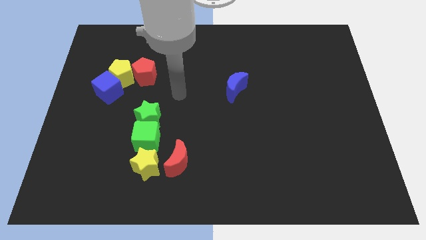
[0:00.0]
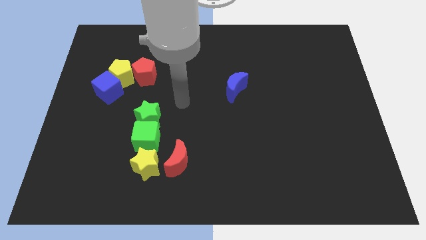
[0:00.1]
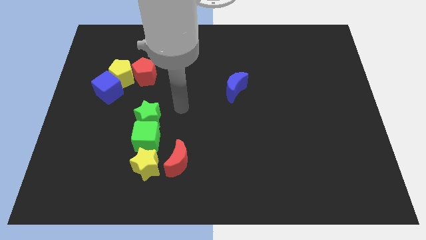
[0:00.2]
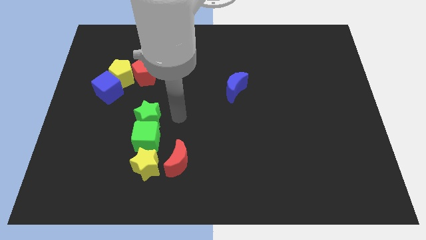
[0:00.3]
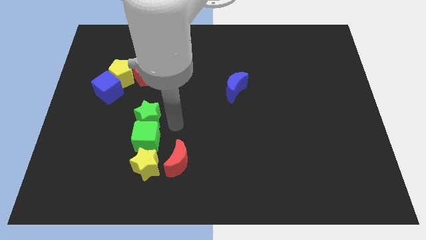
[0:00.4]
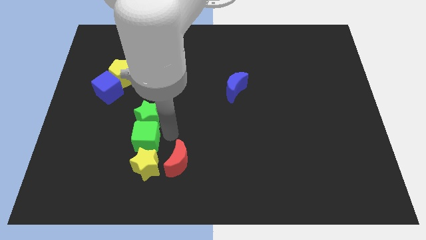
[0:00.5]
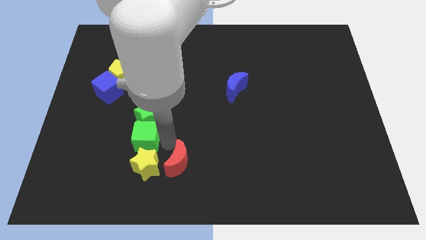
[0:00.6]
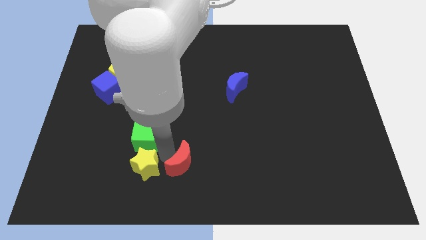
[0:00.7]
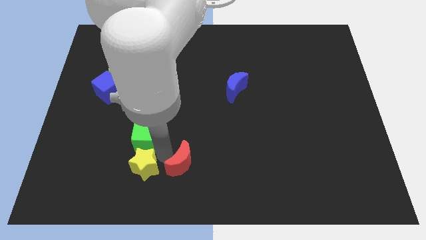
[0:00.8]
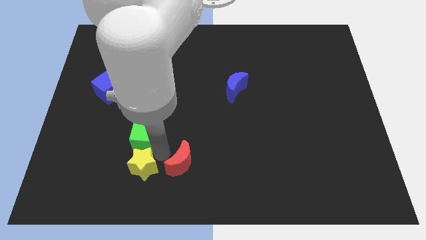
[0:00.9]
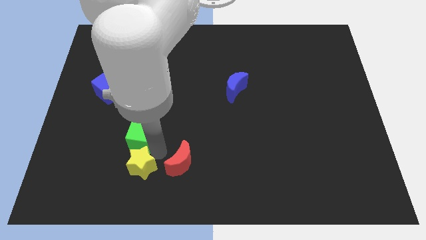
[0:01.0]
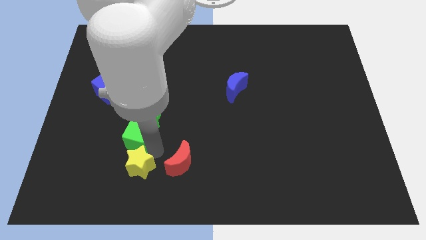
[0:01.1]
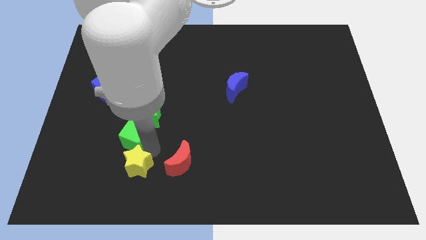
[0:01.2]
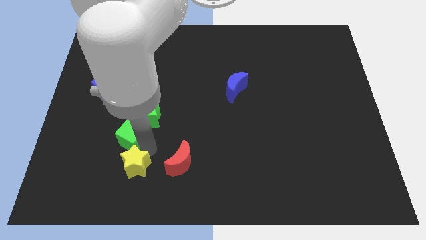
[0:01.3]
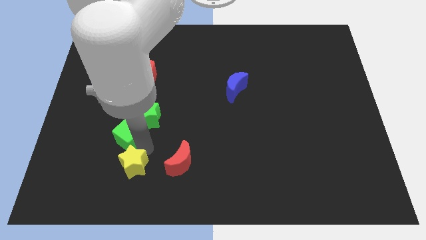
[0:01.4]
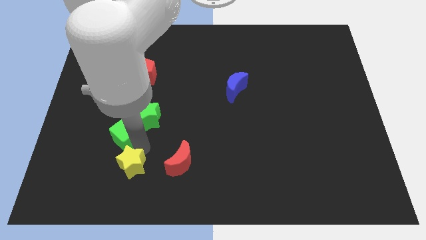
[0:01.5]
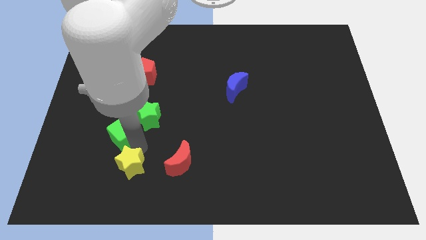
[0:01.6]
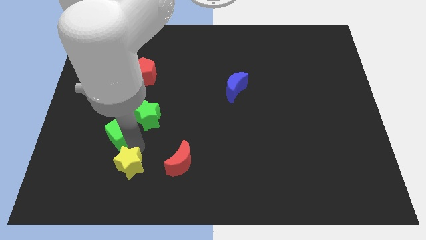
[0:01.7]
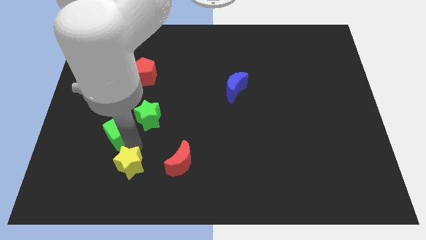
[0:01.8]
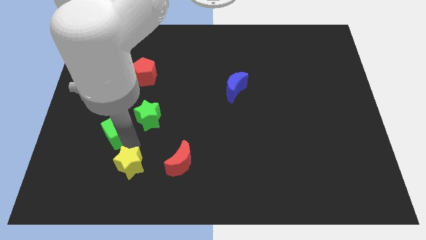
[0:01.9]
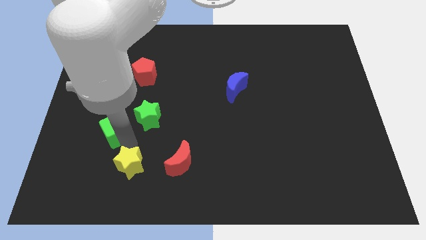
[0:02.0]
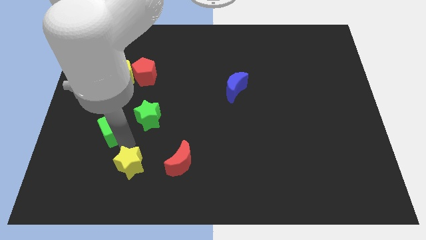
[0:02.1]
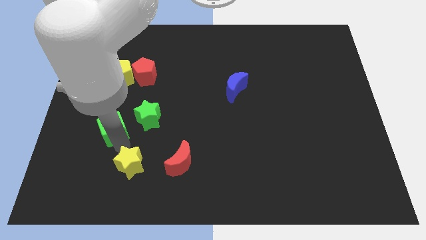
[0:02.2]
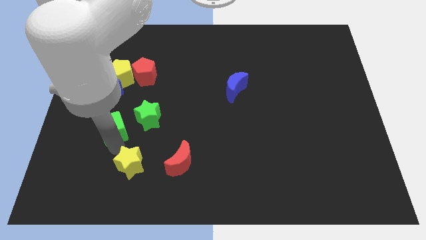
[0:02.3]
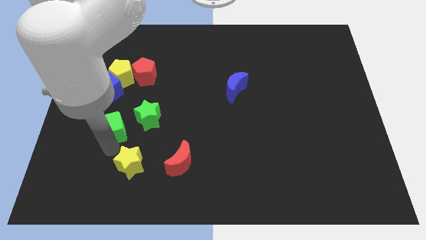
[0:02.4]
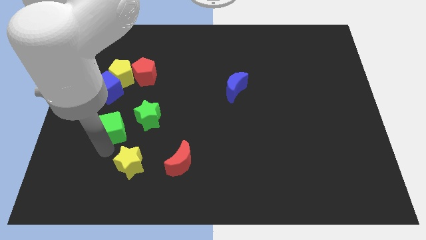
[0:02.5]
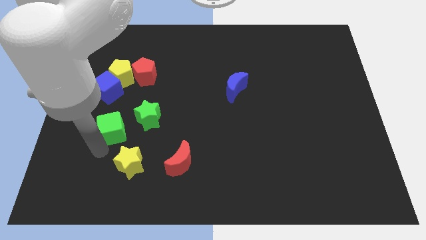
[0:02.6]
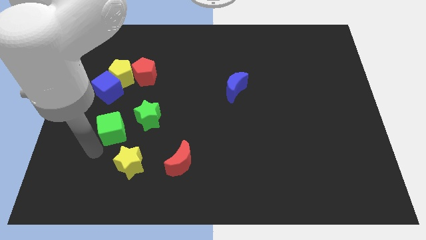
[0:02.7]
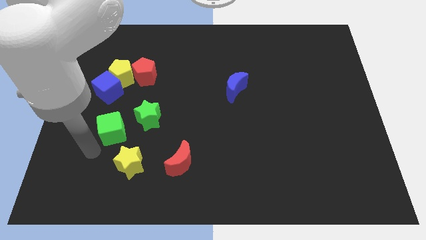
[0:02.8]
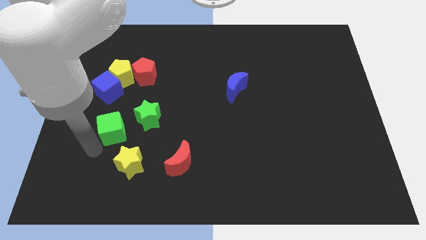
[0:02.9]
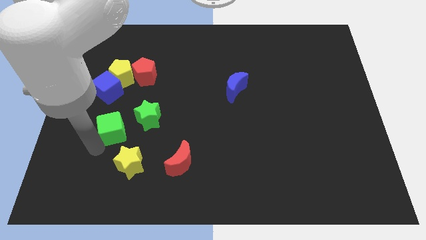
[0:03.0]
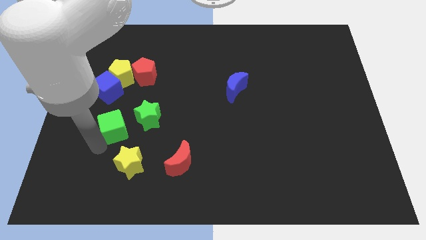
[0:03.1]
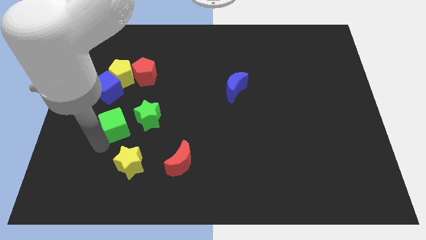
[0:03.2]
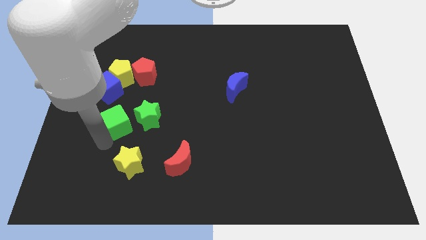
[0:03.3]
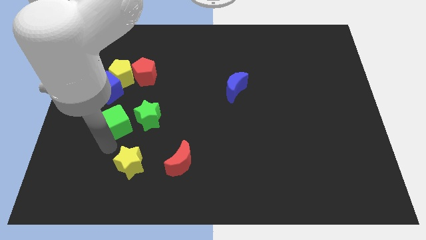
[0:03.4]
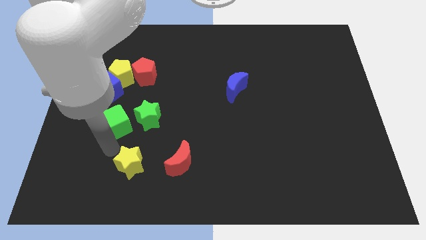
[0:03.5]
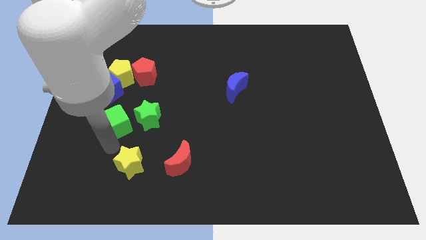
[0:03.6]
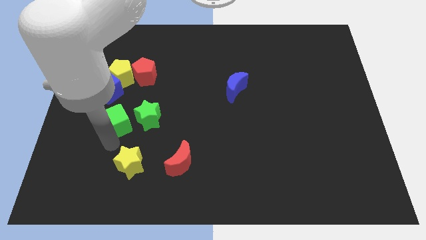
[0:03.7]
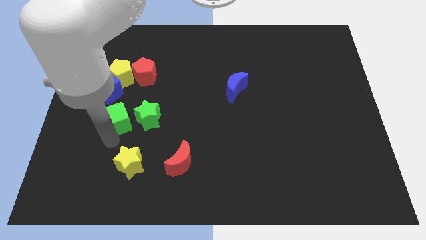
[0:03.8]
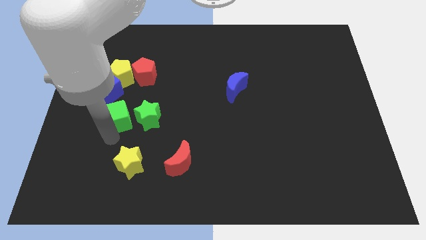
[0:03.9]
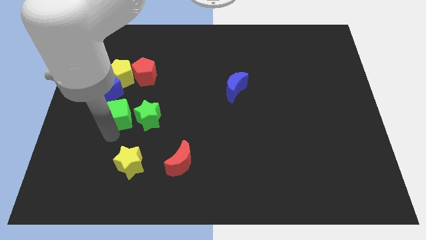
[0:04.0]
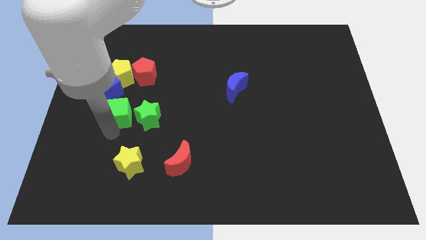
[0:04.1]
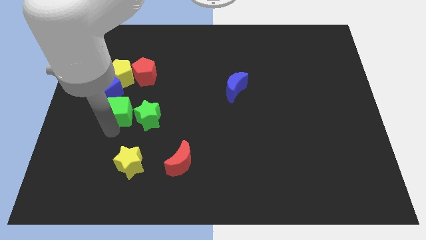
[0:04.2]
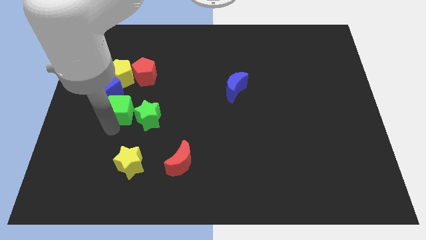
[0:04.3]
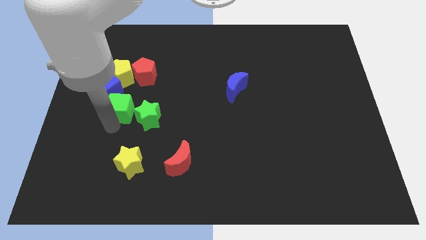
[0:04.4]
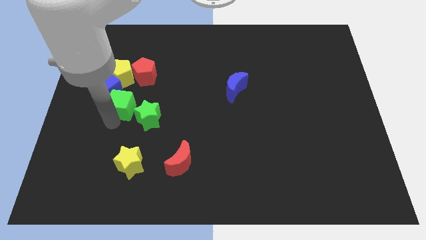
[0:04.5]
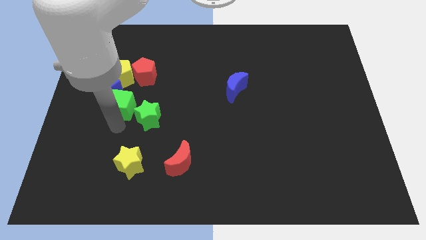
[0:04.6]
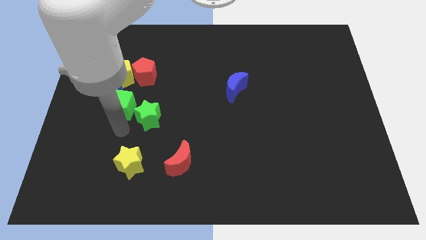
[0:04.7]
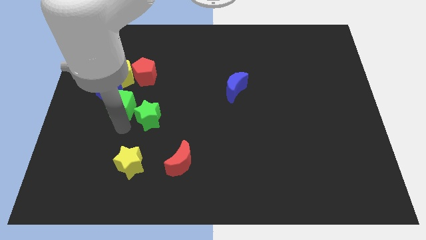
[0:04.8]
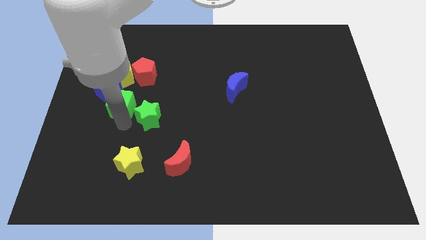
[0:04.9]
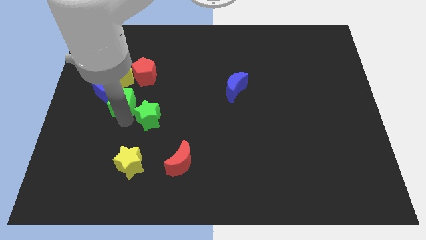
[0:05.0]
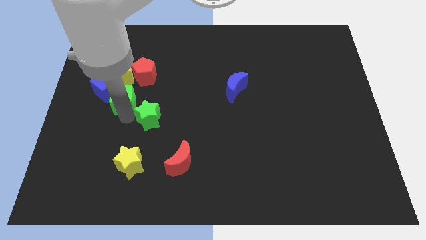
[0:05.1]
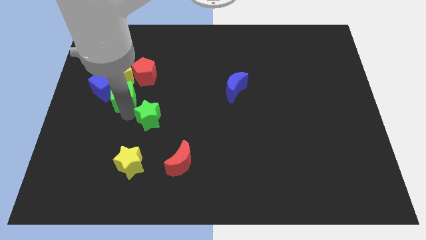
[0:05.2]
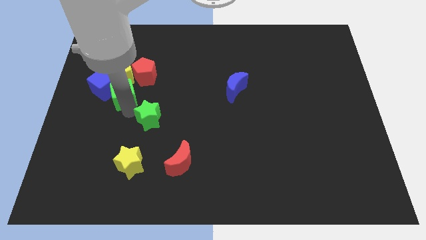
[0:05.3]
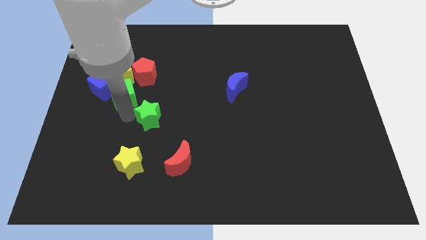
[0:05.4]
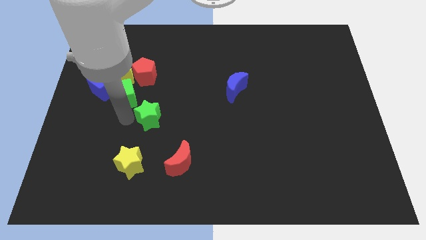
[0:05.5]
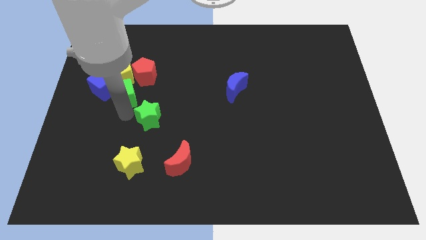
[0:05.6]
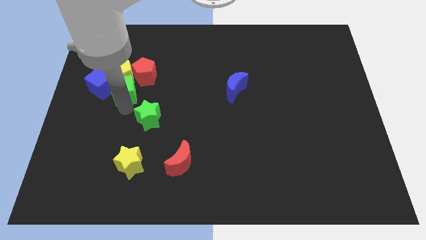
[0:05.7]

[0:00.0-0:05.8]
push the green cube to the yellow pentagon

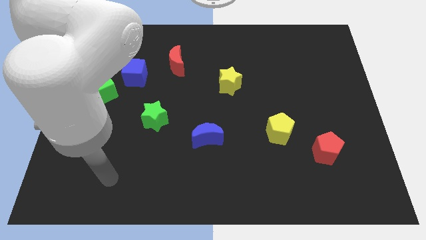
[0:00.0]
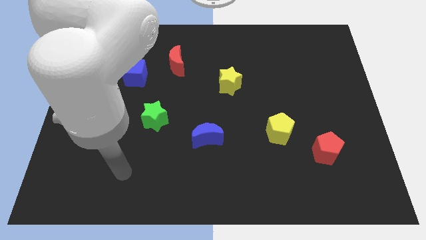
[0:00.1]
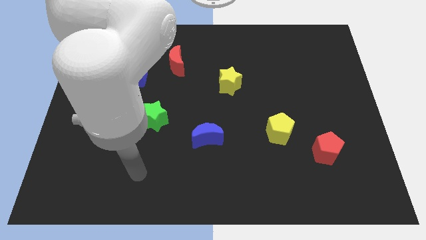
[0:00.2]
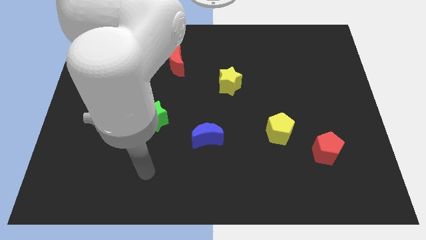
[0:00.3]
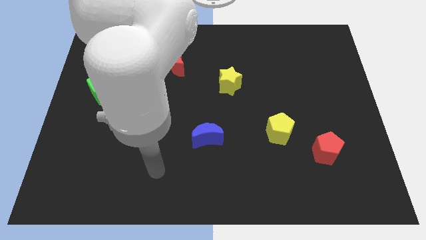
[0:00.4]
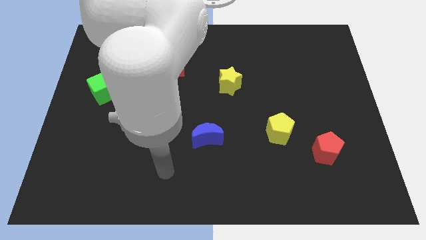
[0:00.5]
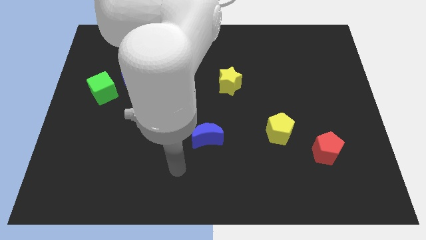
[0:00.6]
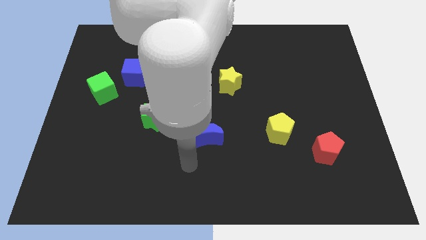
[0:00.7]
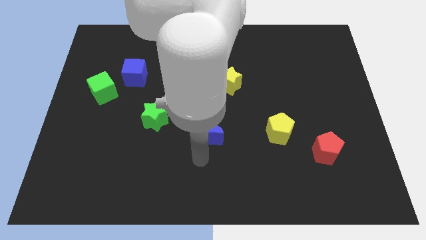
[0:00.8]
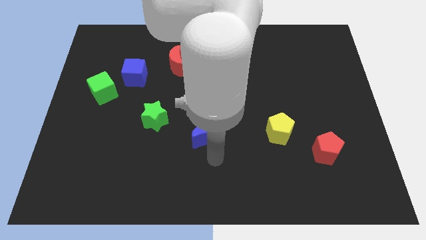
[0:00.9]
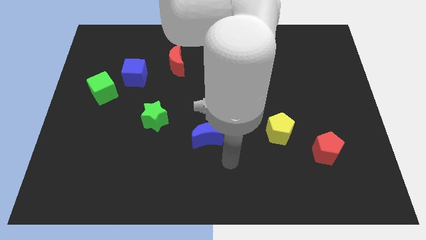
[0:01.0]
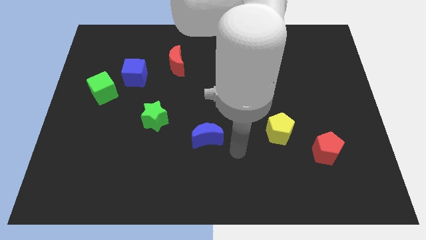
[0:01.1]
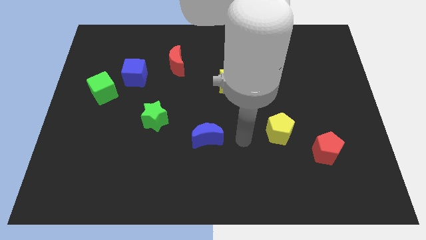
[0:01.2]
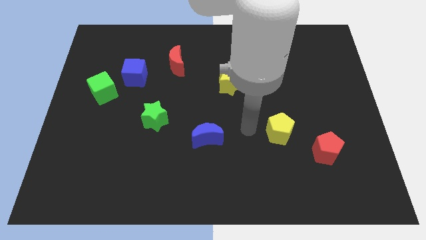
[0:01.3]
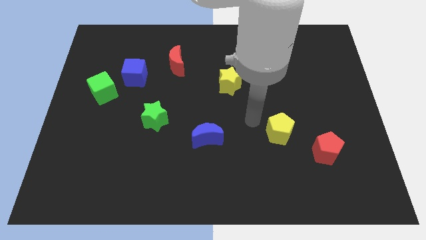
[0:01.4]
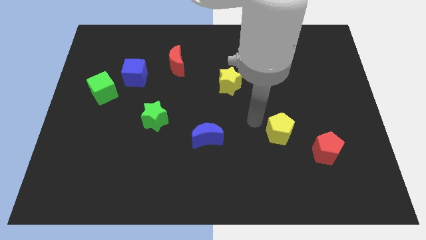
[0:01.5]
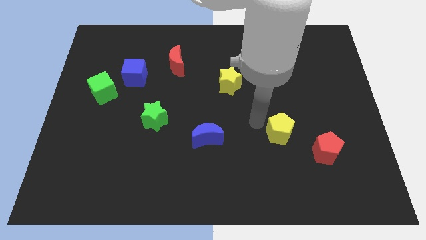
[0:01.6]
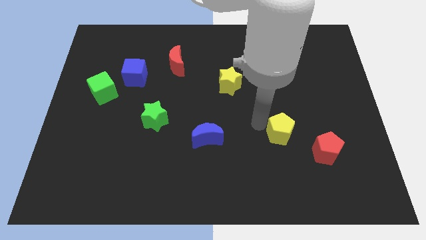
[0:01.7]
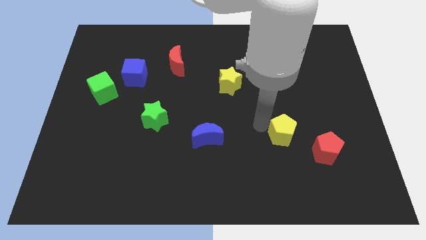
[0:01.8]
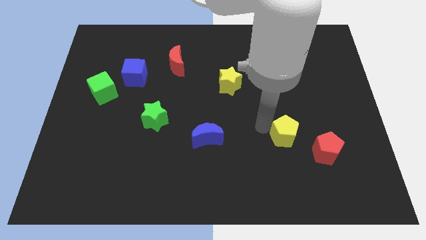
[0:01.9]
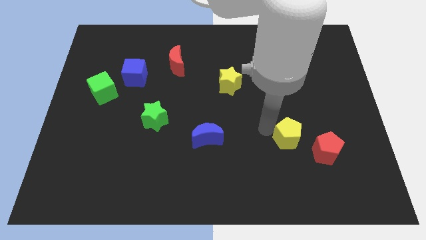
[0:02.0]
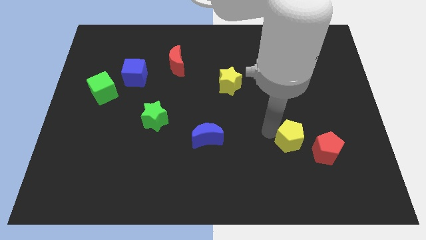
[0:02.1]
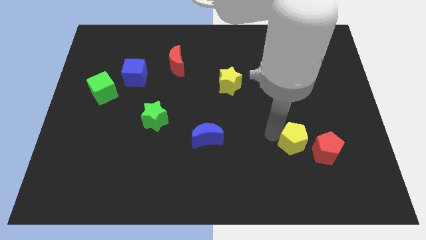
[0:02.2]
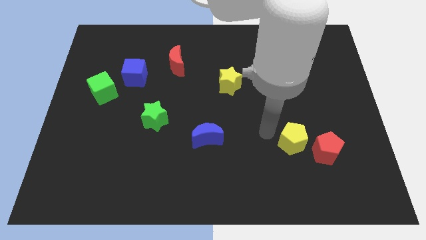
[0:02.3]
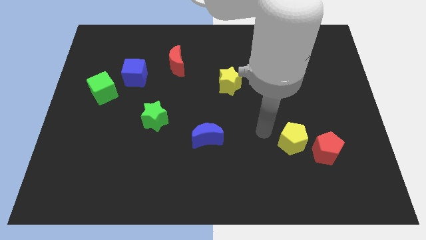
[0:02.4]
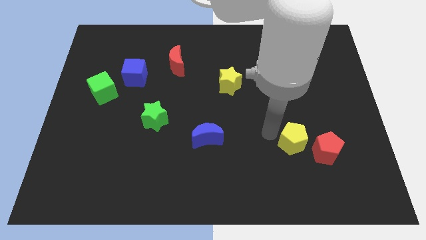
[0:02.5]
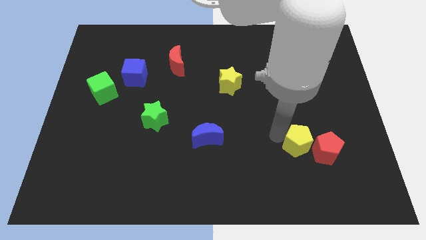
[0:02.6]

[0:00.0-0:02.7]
put the yellow pentagon to the red pentagon

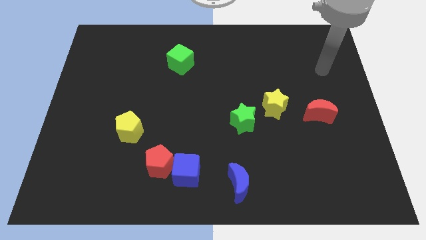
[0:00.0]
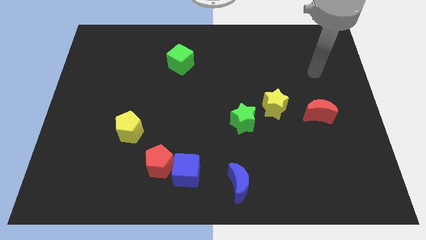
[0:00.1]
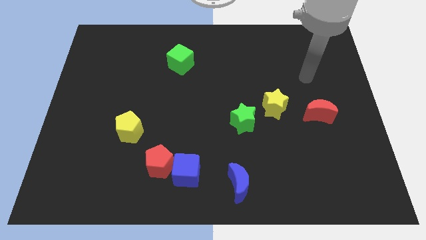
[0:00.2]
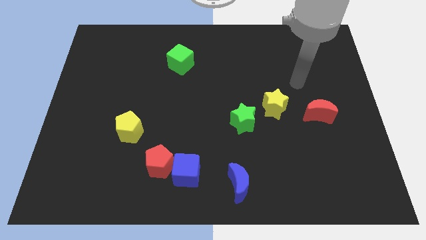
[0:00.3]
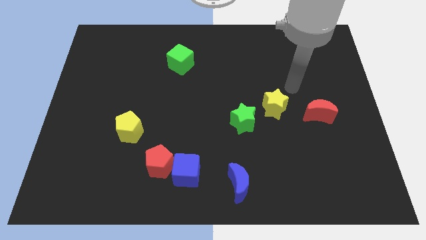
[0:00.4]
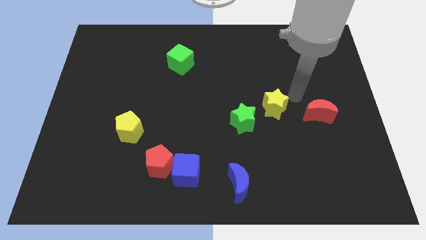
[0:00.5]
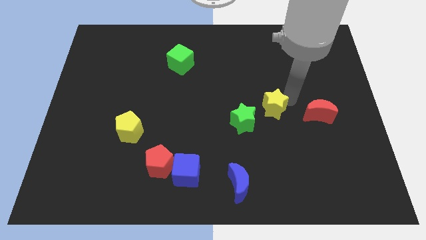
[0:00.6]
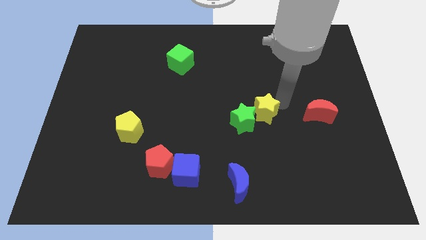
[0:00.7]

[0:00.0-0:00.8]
slide the yellow star to the green star
